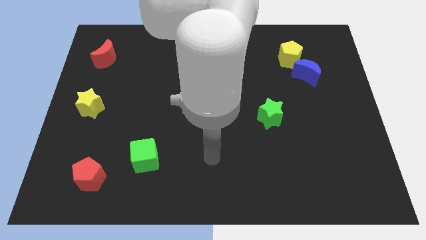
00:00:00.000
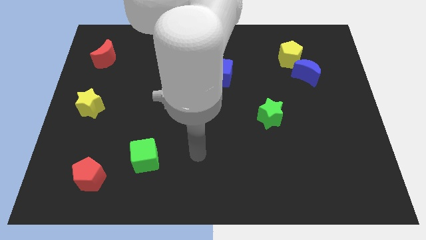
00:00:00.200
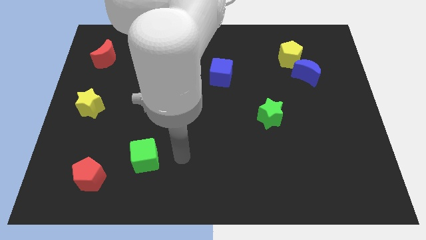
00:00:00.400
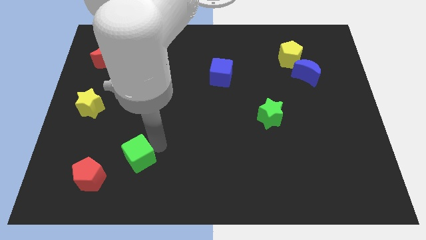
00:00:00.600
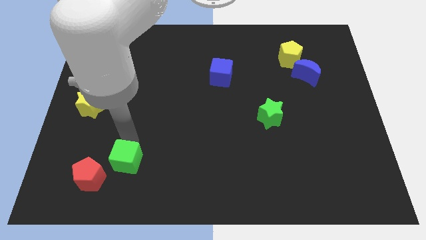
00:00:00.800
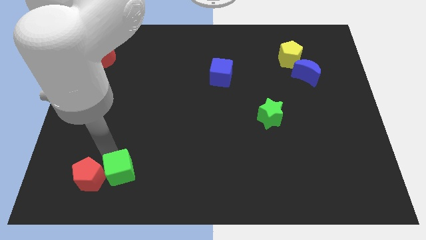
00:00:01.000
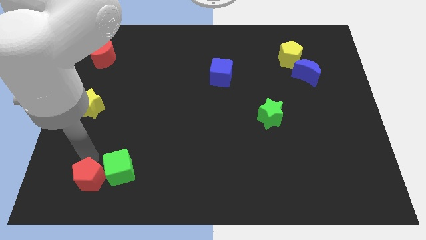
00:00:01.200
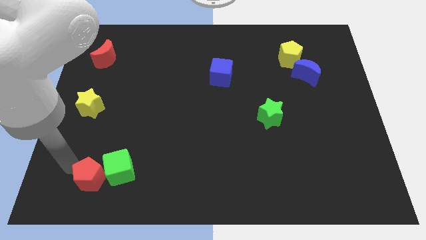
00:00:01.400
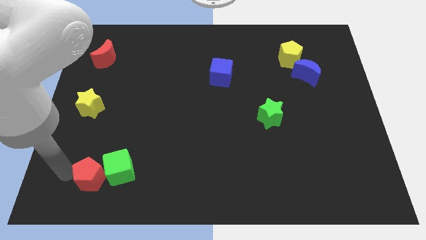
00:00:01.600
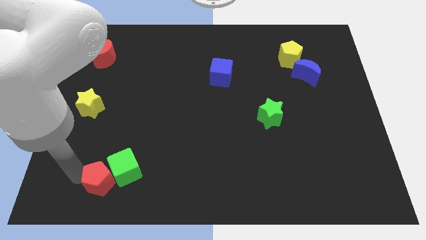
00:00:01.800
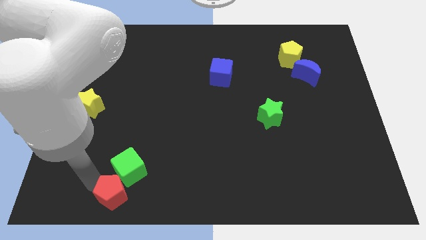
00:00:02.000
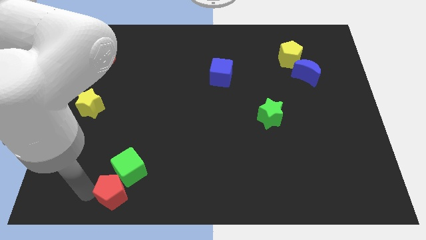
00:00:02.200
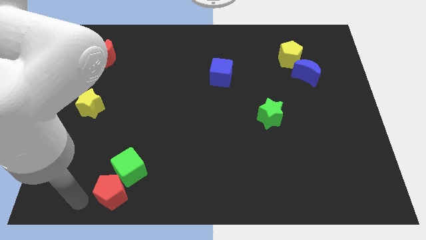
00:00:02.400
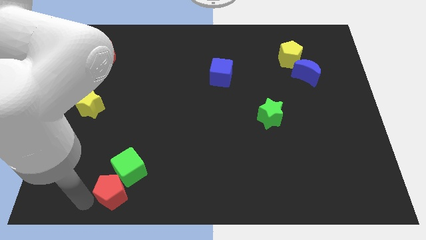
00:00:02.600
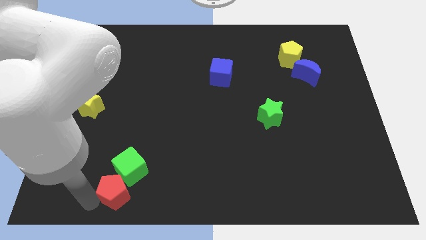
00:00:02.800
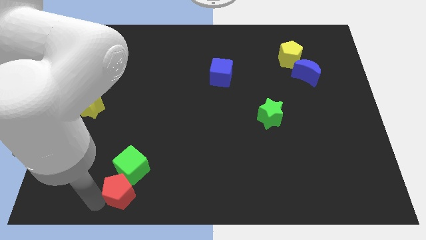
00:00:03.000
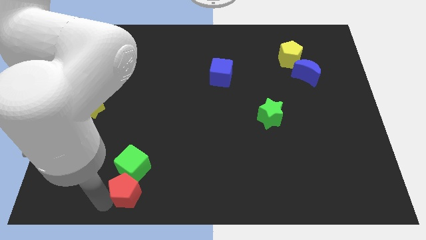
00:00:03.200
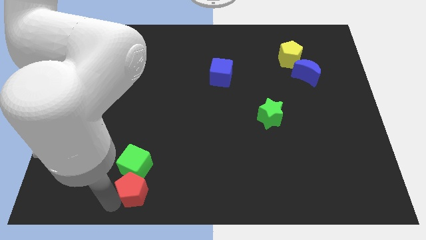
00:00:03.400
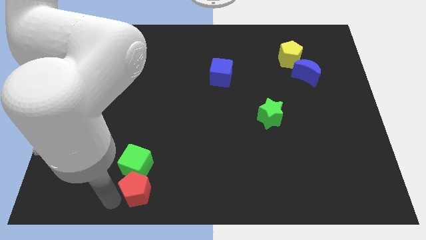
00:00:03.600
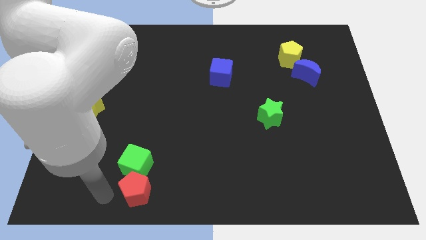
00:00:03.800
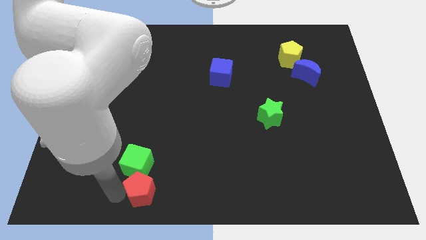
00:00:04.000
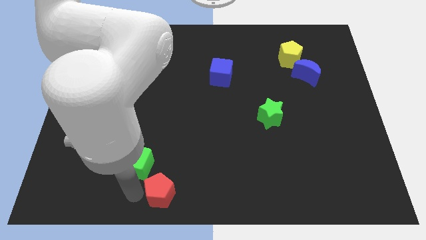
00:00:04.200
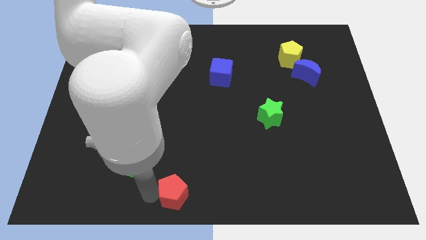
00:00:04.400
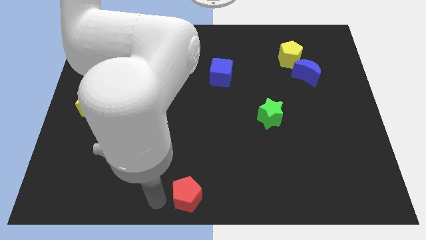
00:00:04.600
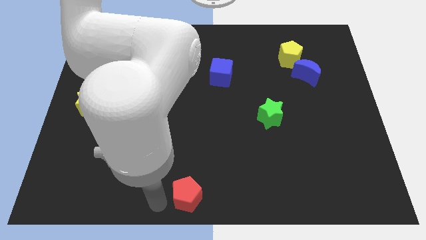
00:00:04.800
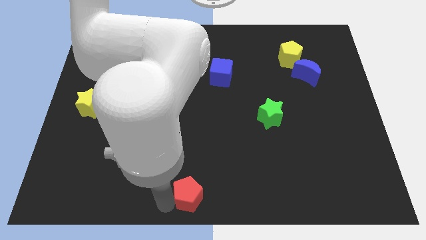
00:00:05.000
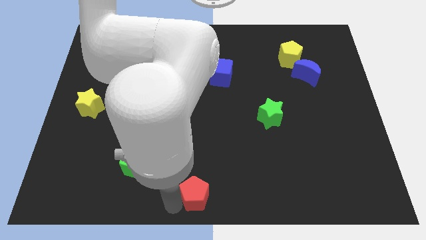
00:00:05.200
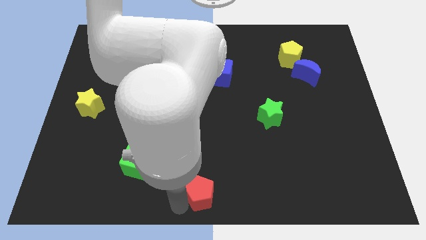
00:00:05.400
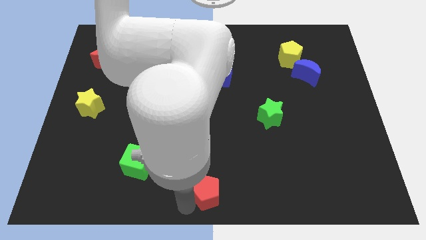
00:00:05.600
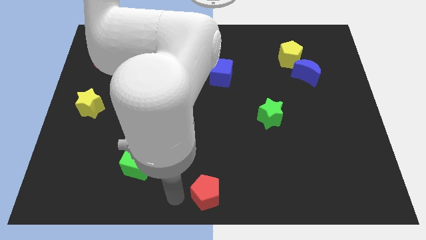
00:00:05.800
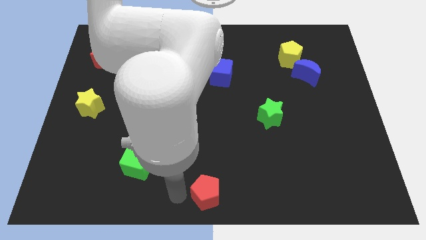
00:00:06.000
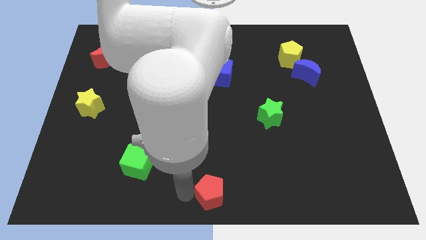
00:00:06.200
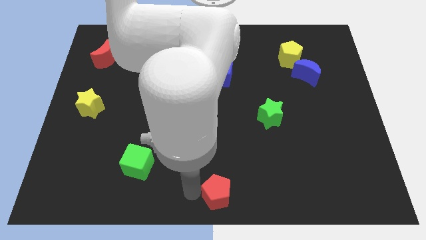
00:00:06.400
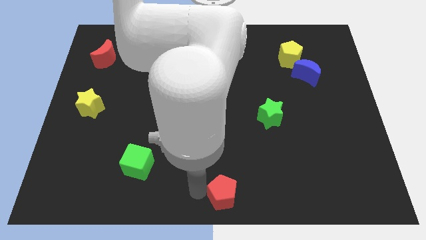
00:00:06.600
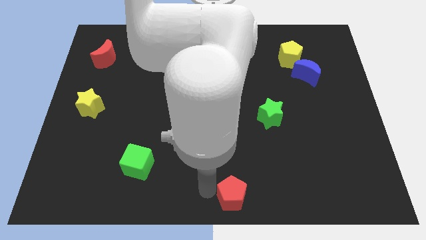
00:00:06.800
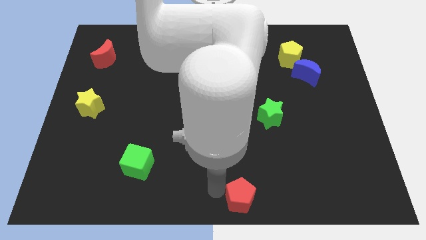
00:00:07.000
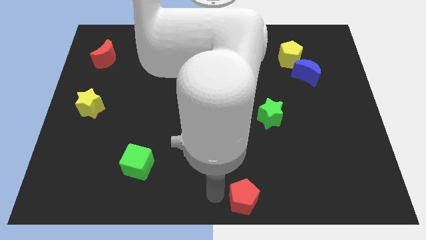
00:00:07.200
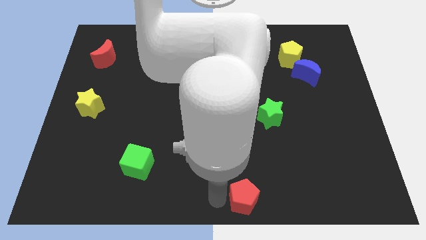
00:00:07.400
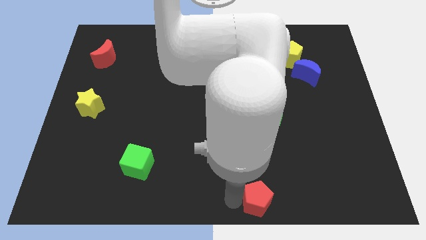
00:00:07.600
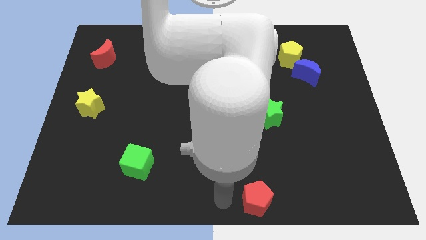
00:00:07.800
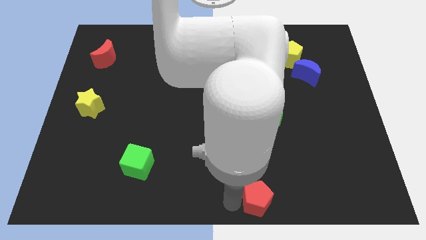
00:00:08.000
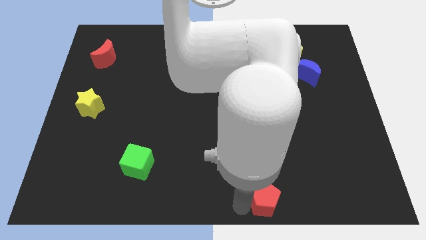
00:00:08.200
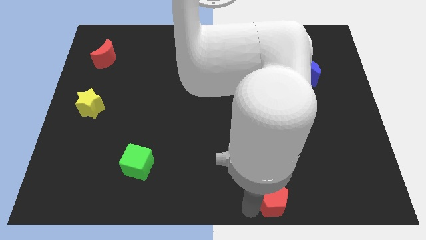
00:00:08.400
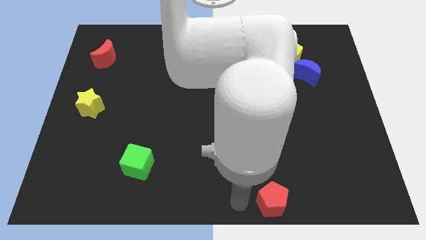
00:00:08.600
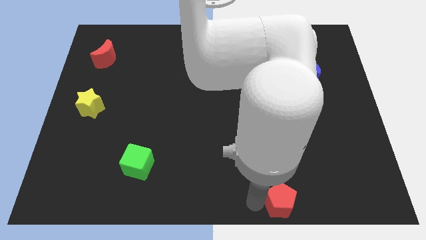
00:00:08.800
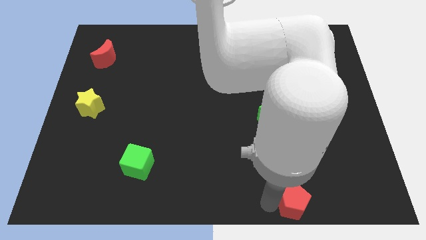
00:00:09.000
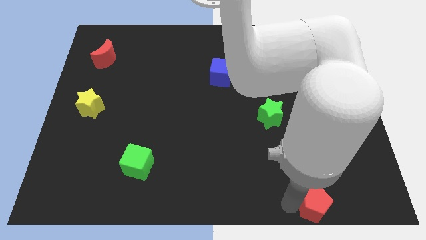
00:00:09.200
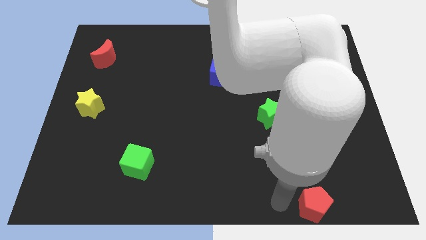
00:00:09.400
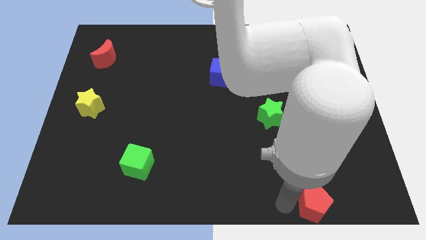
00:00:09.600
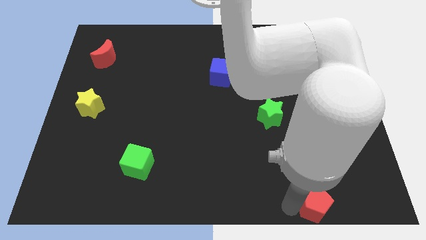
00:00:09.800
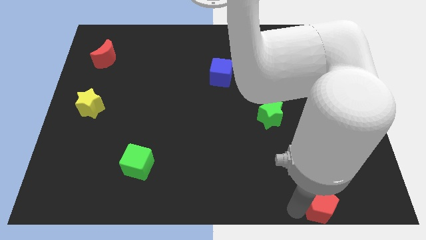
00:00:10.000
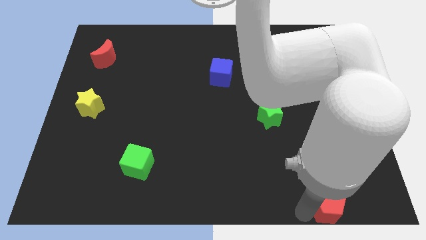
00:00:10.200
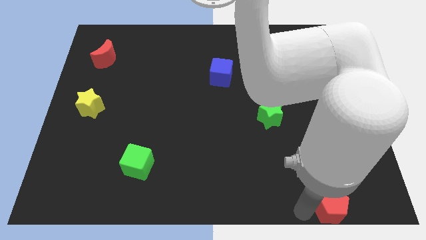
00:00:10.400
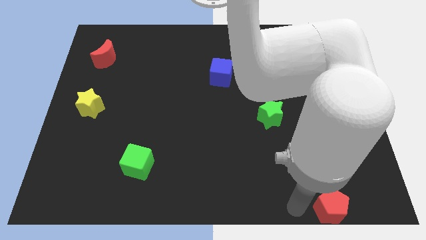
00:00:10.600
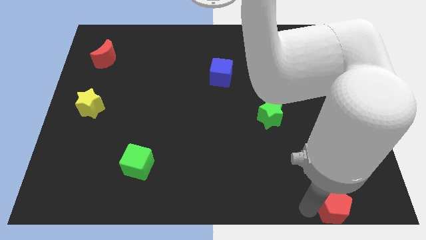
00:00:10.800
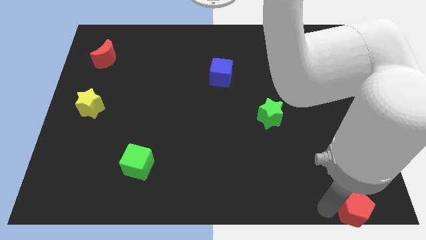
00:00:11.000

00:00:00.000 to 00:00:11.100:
push the red pentagon to the bottom right

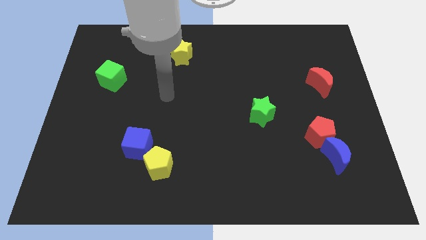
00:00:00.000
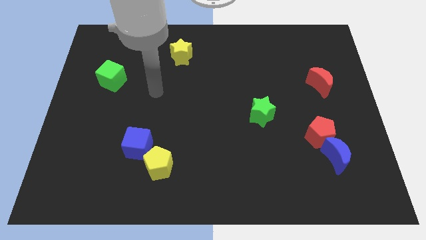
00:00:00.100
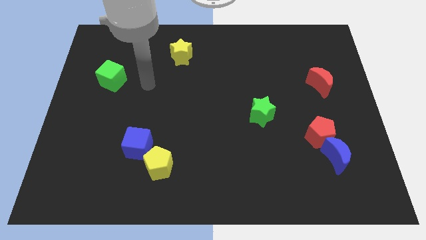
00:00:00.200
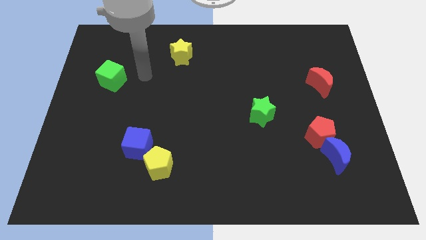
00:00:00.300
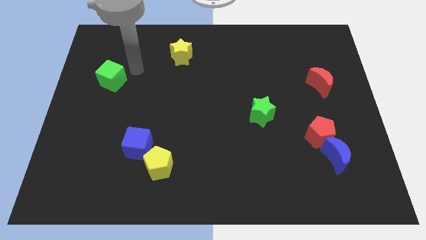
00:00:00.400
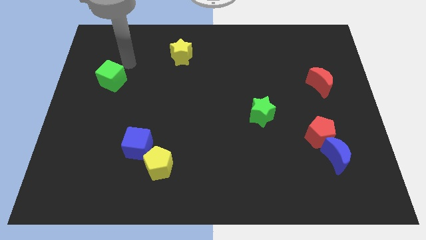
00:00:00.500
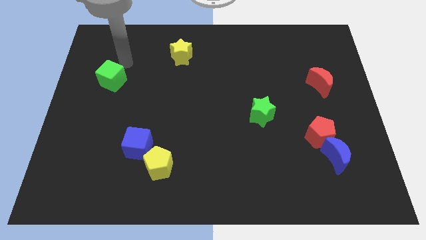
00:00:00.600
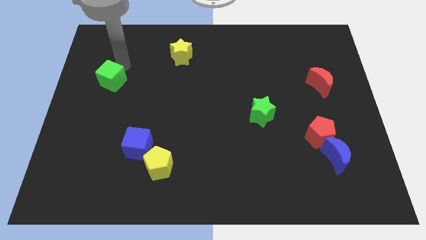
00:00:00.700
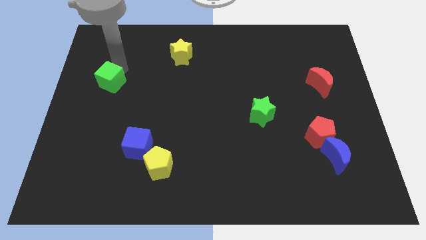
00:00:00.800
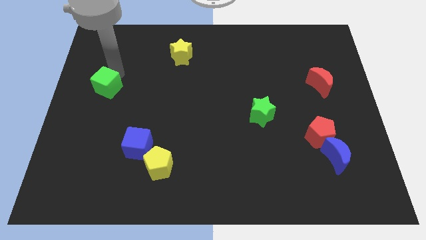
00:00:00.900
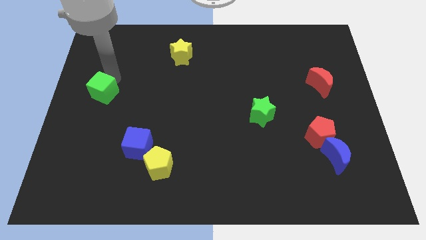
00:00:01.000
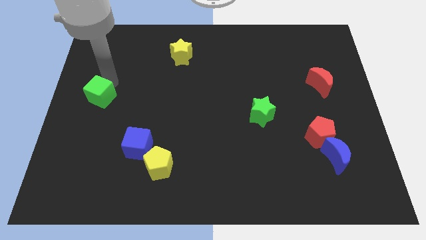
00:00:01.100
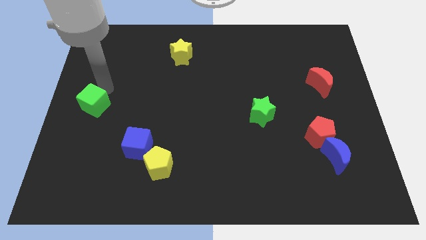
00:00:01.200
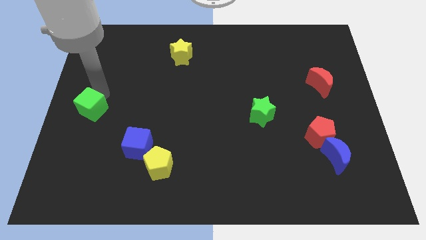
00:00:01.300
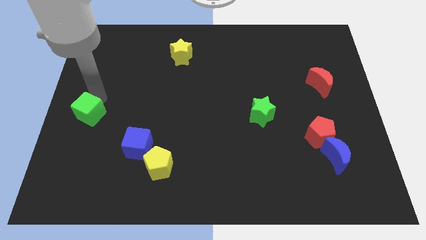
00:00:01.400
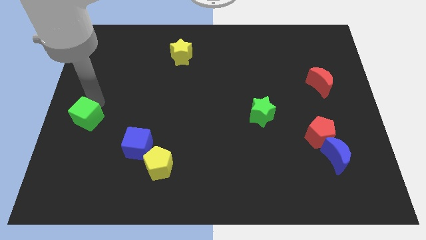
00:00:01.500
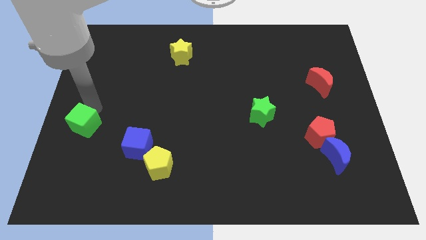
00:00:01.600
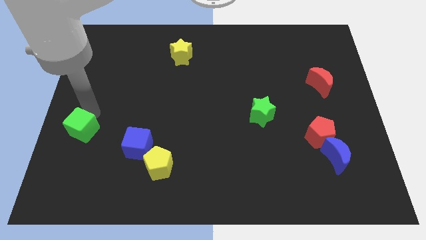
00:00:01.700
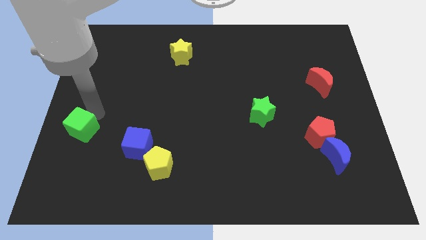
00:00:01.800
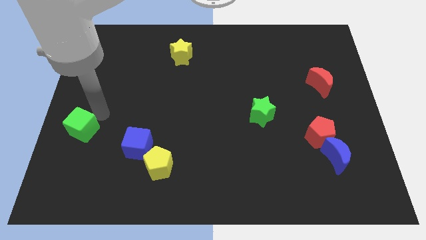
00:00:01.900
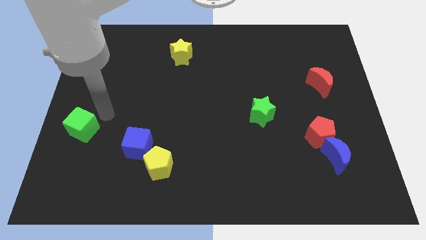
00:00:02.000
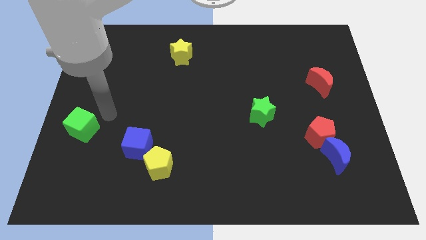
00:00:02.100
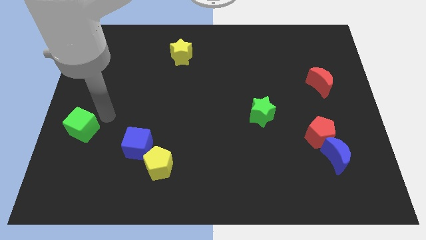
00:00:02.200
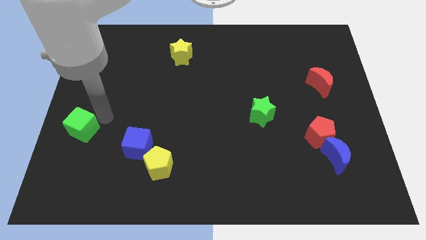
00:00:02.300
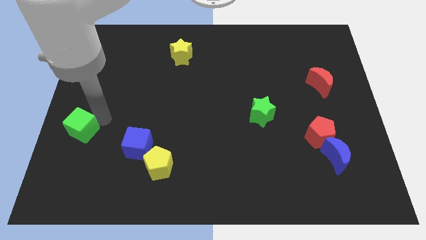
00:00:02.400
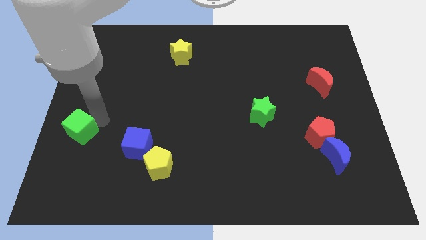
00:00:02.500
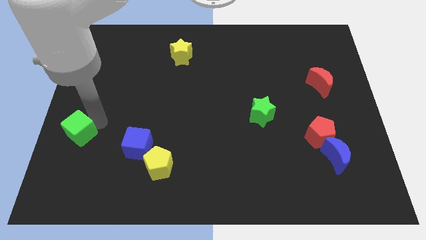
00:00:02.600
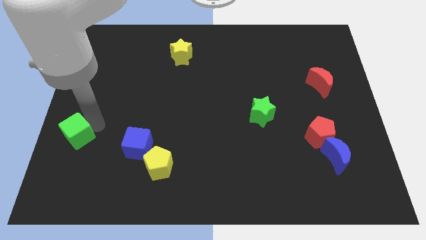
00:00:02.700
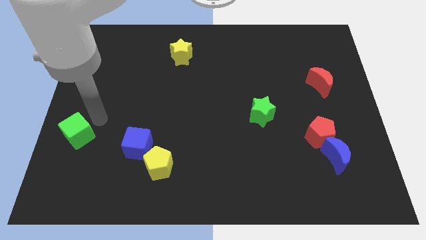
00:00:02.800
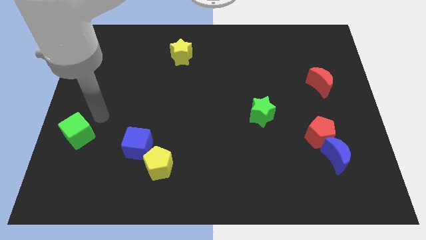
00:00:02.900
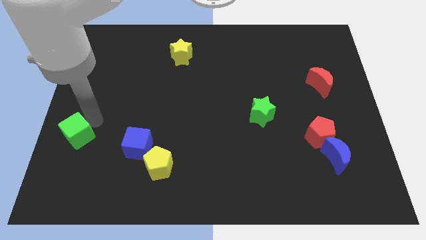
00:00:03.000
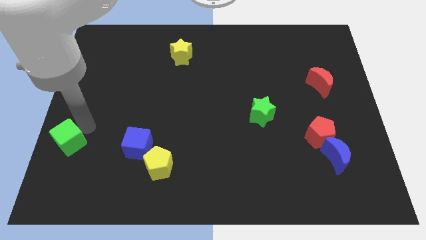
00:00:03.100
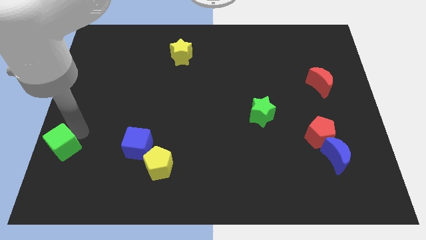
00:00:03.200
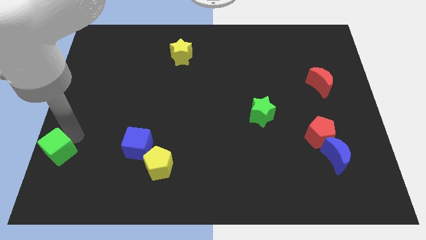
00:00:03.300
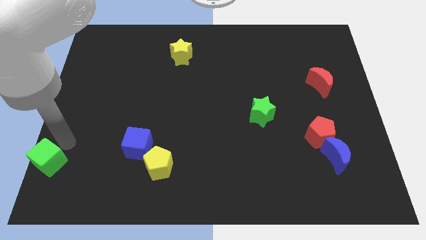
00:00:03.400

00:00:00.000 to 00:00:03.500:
push the green cube to the bottom left of the board
